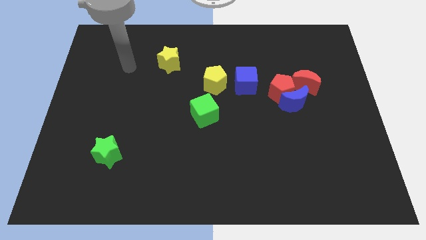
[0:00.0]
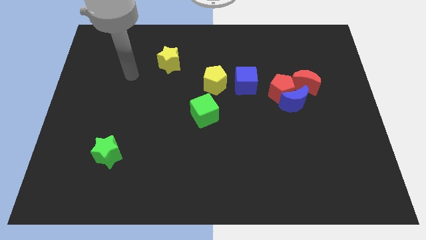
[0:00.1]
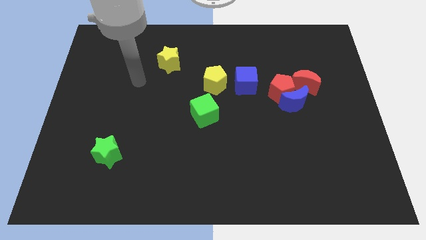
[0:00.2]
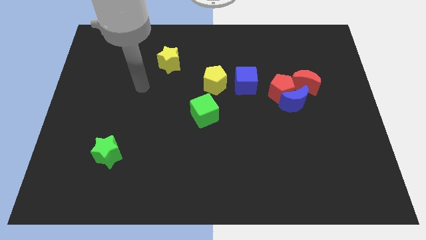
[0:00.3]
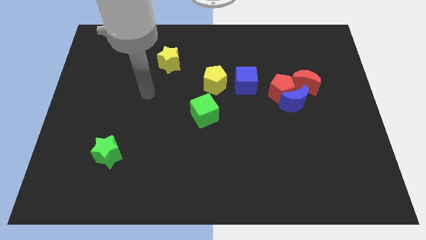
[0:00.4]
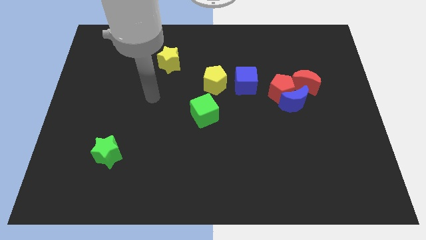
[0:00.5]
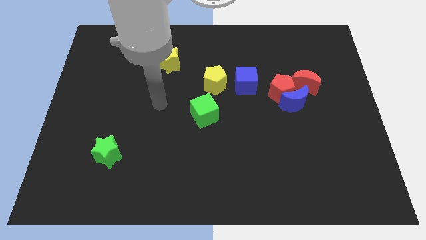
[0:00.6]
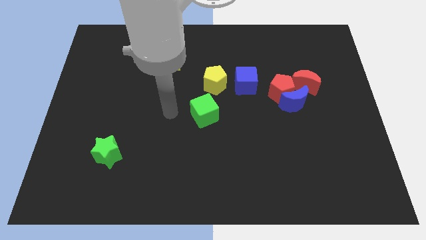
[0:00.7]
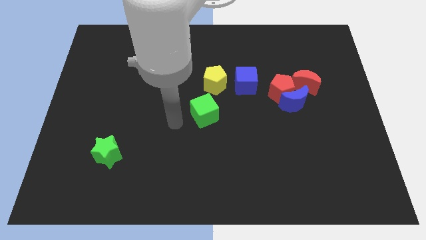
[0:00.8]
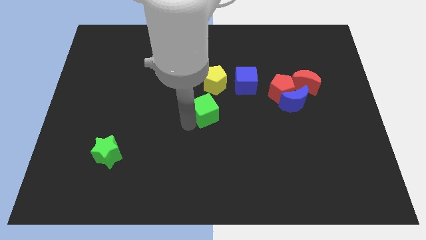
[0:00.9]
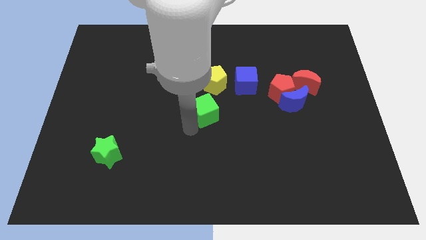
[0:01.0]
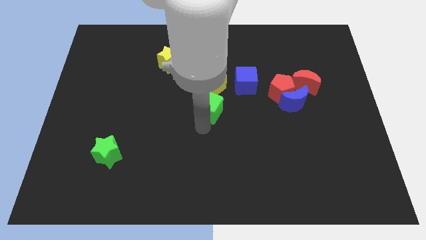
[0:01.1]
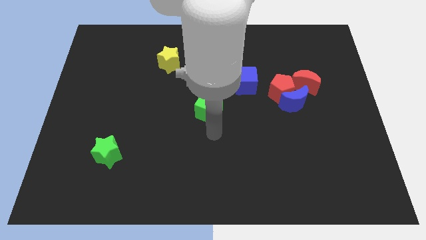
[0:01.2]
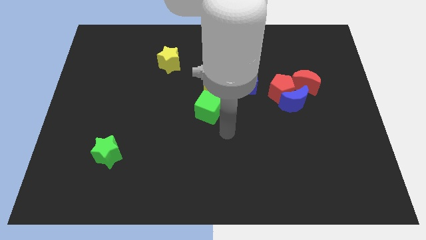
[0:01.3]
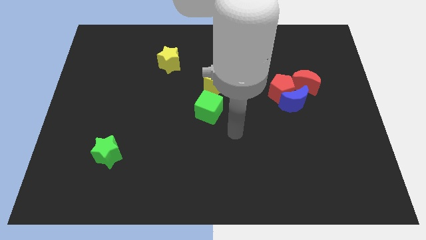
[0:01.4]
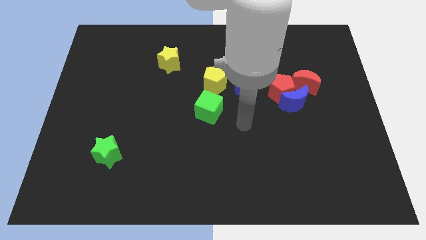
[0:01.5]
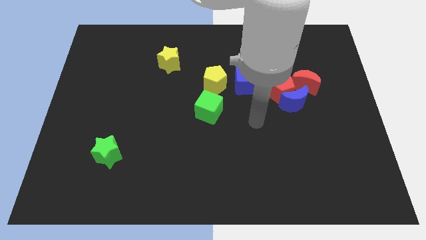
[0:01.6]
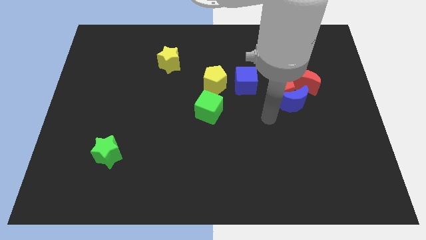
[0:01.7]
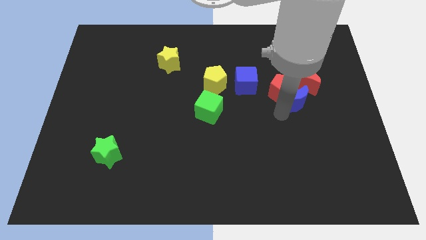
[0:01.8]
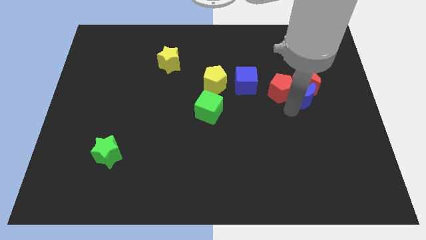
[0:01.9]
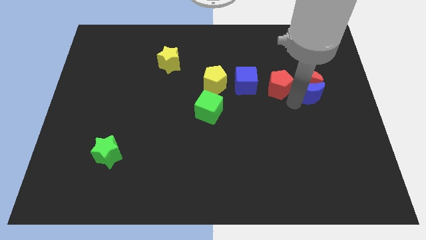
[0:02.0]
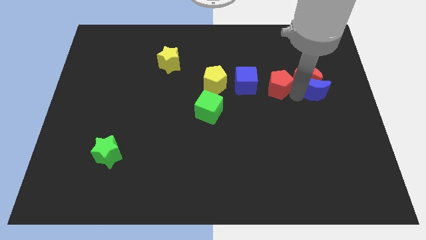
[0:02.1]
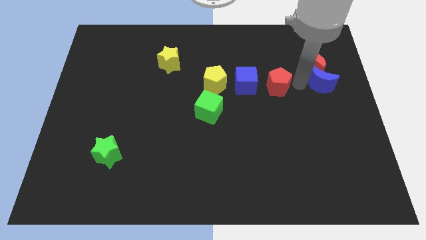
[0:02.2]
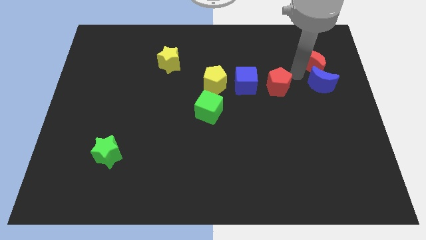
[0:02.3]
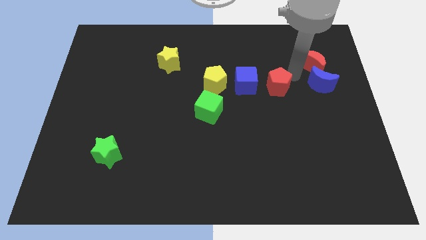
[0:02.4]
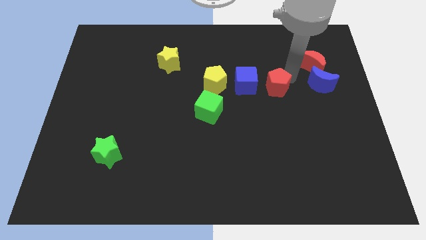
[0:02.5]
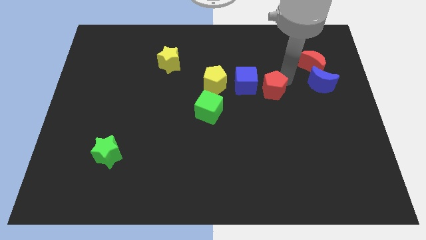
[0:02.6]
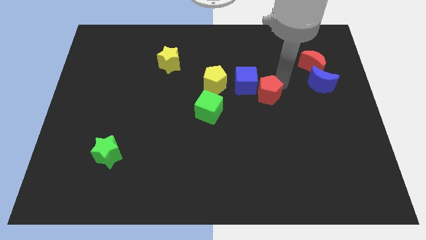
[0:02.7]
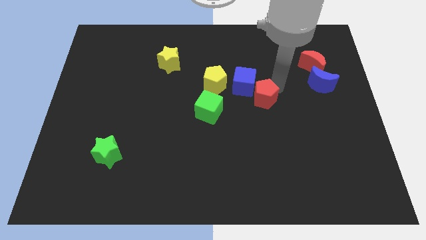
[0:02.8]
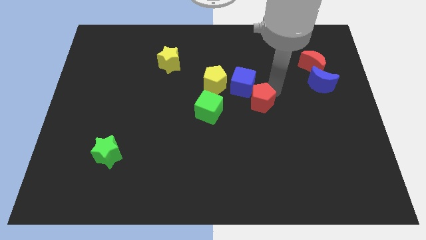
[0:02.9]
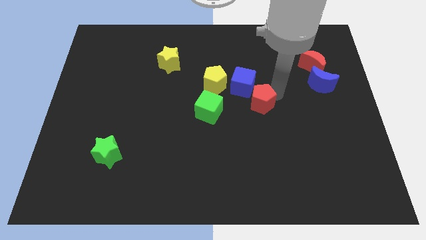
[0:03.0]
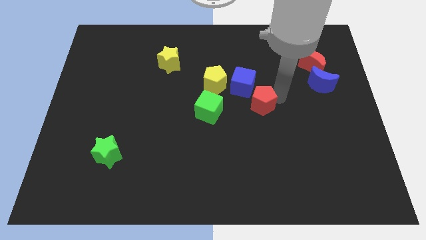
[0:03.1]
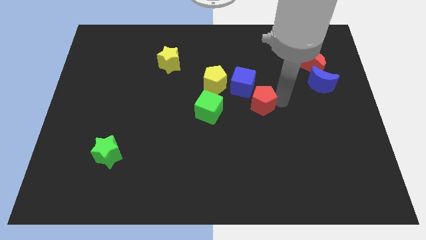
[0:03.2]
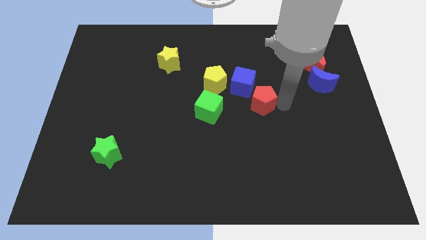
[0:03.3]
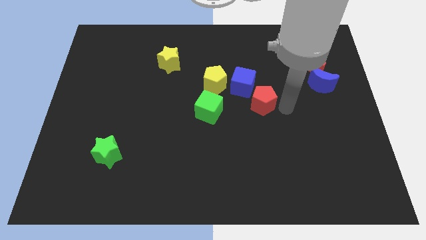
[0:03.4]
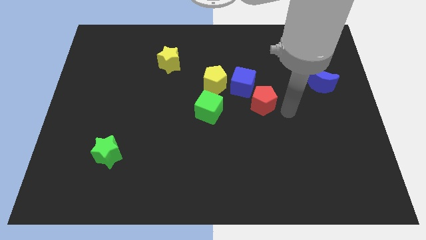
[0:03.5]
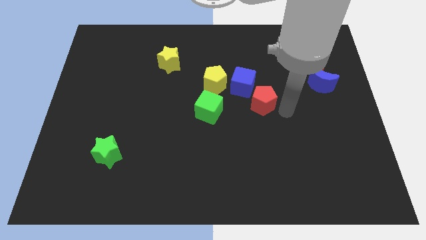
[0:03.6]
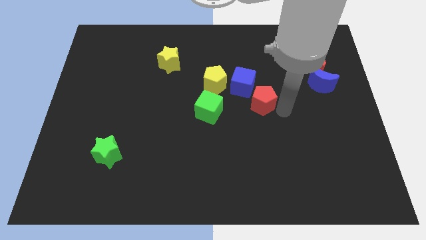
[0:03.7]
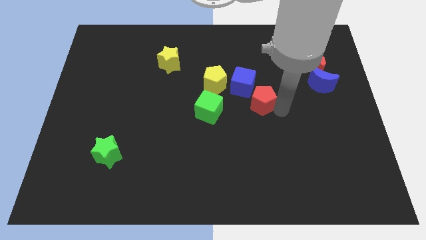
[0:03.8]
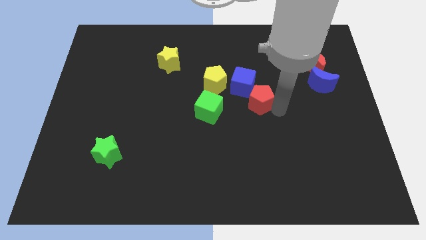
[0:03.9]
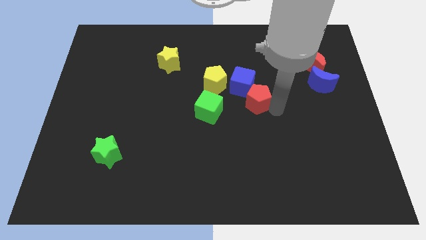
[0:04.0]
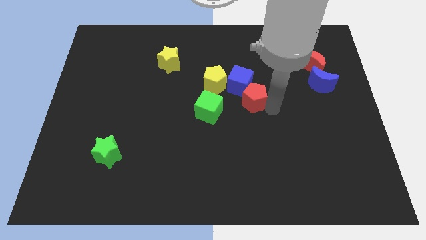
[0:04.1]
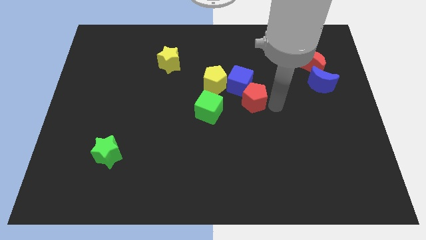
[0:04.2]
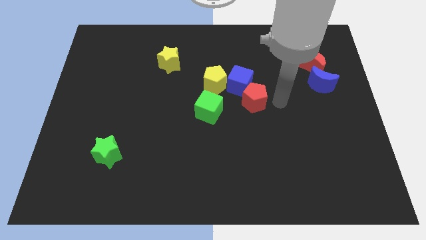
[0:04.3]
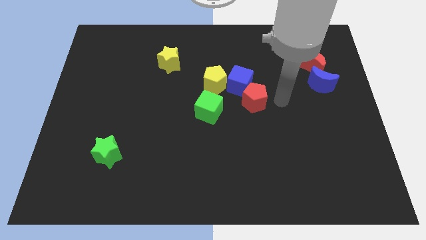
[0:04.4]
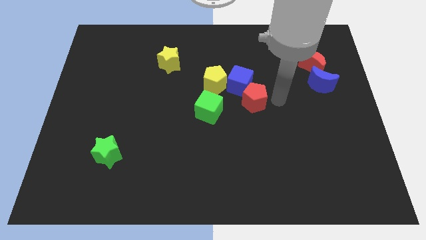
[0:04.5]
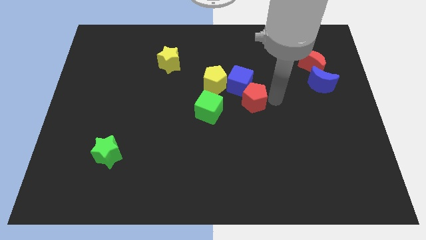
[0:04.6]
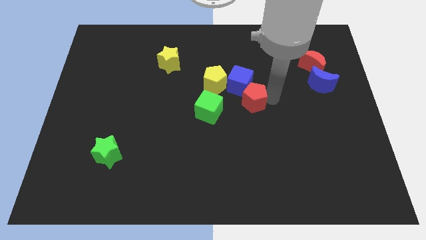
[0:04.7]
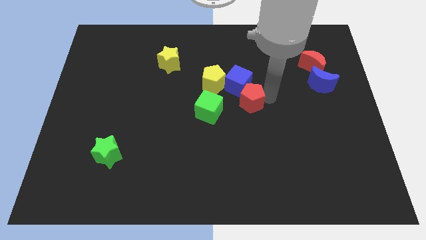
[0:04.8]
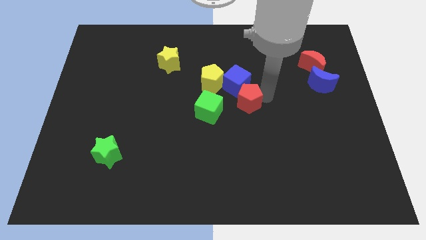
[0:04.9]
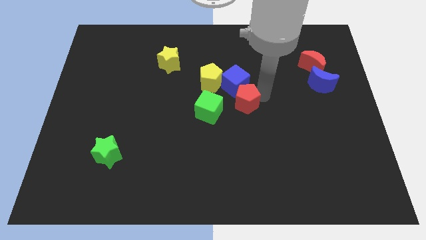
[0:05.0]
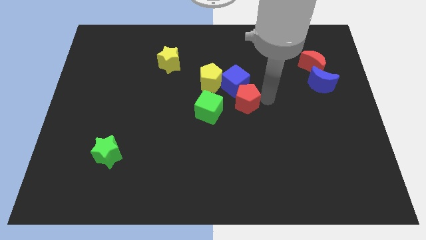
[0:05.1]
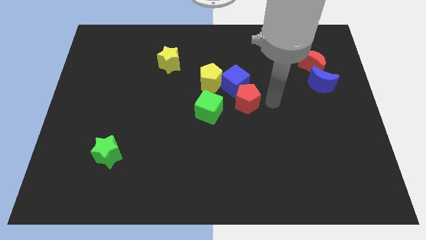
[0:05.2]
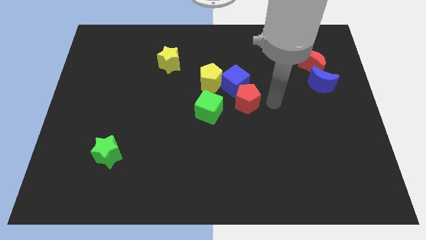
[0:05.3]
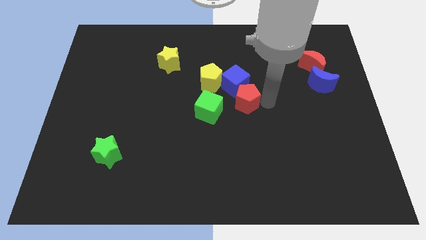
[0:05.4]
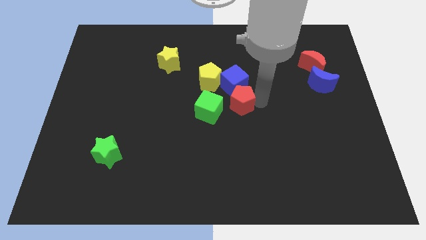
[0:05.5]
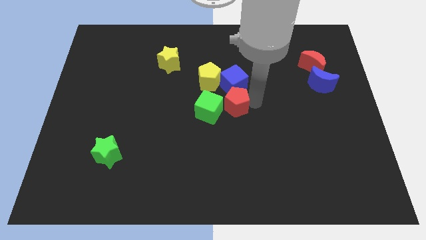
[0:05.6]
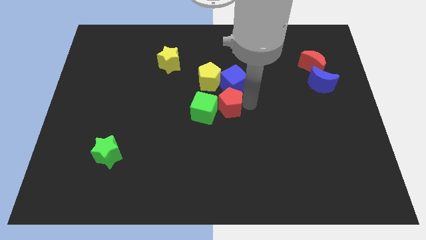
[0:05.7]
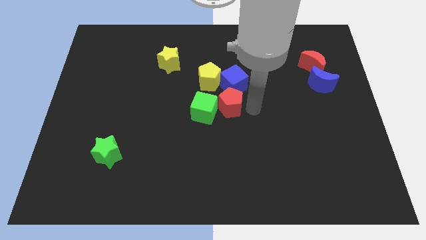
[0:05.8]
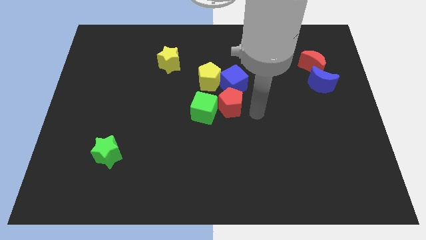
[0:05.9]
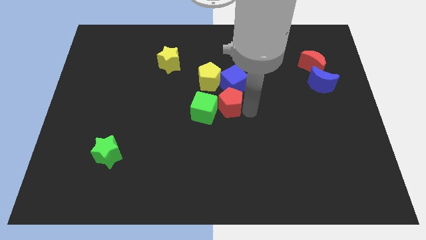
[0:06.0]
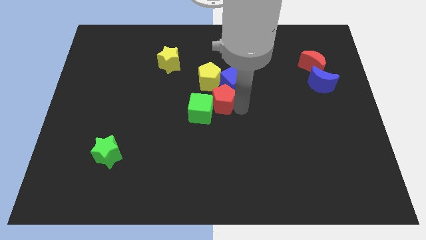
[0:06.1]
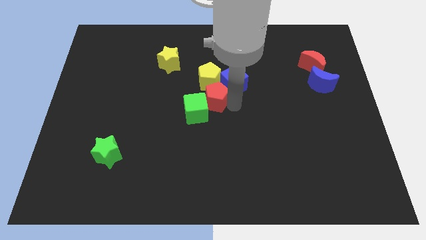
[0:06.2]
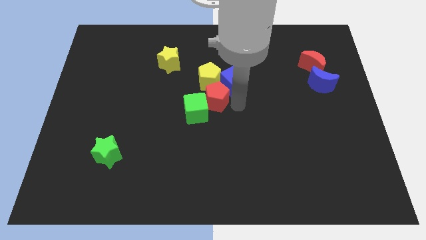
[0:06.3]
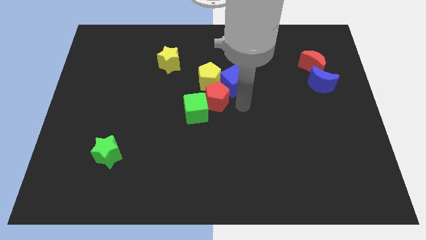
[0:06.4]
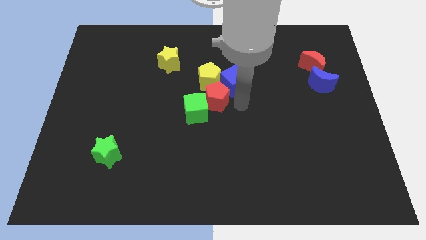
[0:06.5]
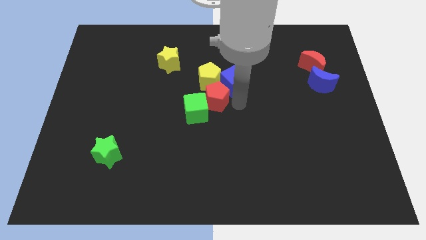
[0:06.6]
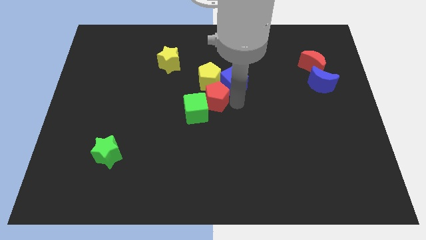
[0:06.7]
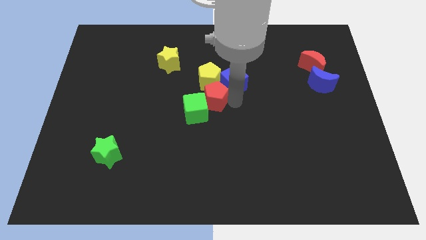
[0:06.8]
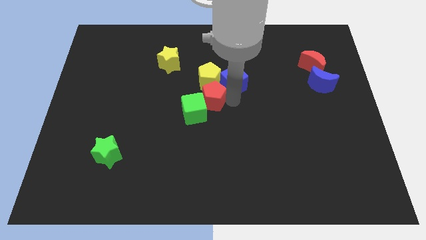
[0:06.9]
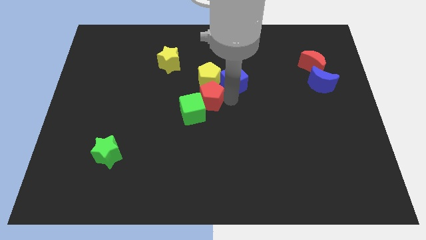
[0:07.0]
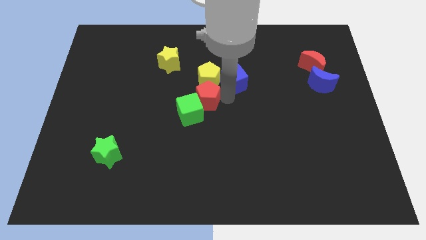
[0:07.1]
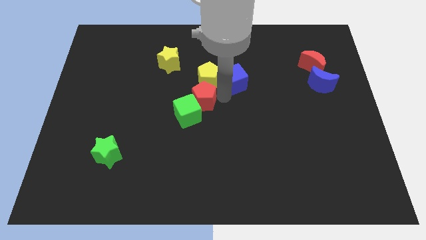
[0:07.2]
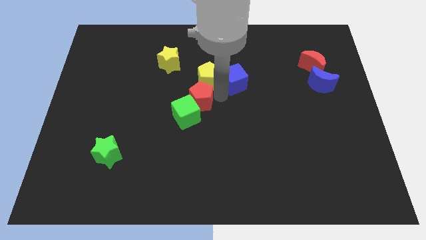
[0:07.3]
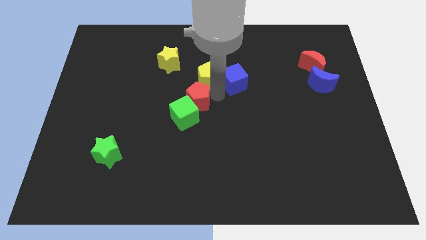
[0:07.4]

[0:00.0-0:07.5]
slide the red pentagon to the left
